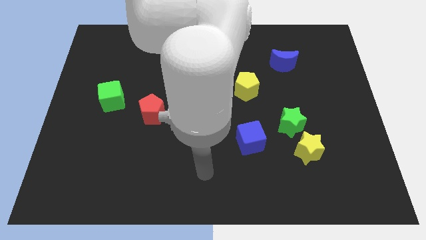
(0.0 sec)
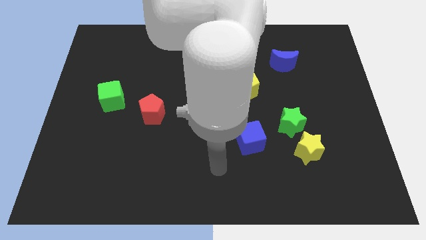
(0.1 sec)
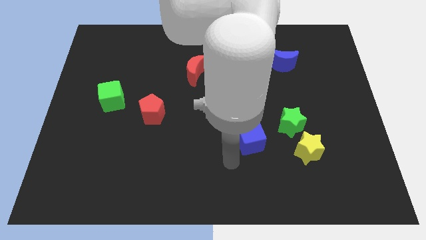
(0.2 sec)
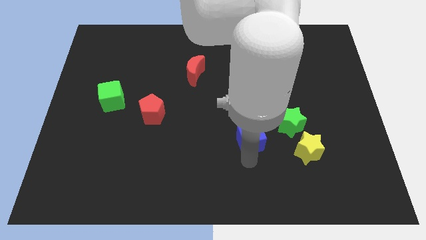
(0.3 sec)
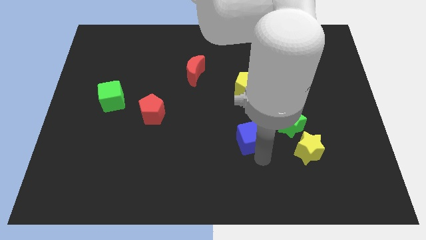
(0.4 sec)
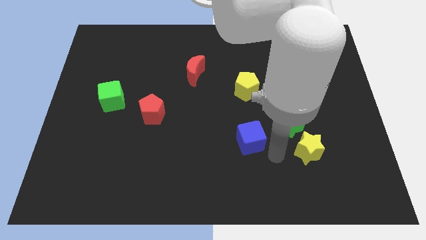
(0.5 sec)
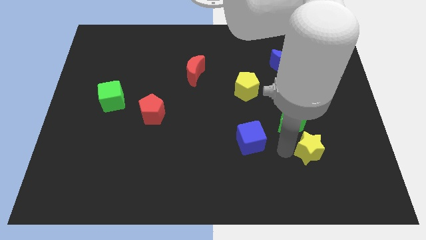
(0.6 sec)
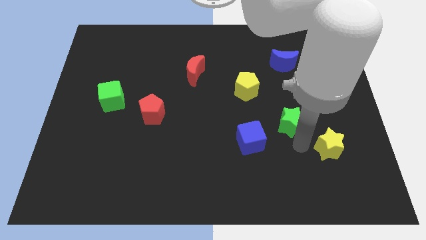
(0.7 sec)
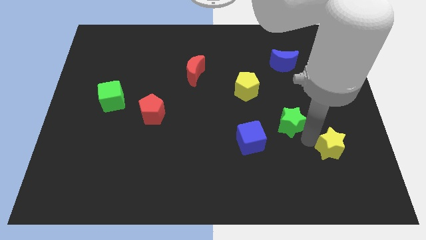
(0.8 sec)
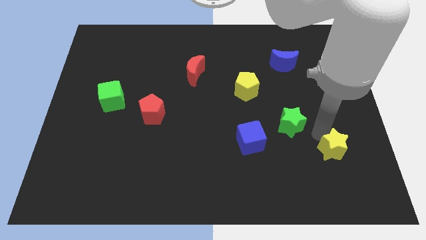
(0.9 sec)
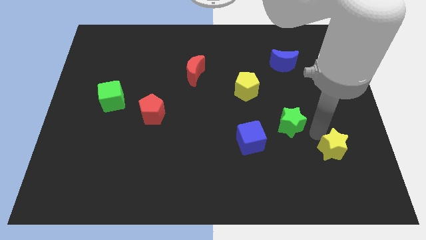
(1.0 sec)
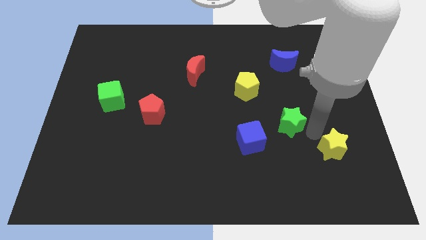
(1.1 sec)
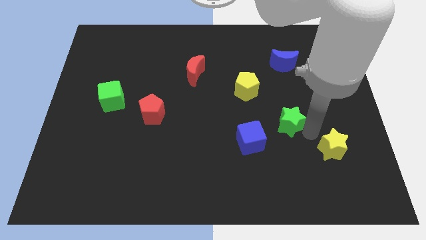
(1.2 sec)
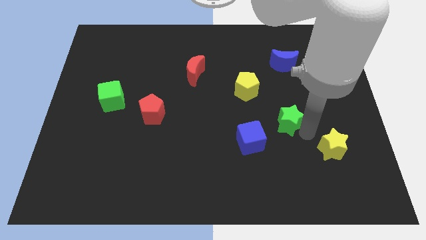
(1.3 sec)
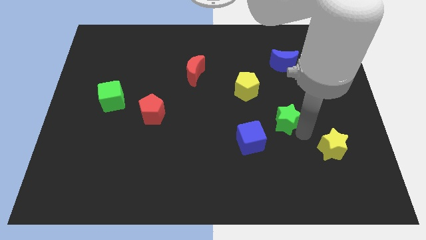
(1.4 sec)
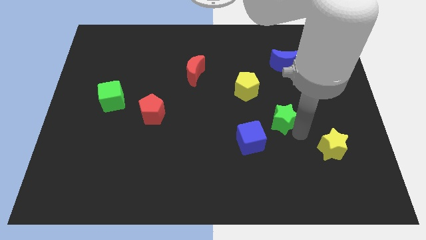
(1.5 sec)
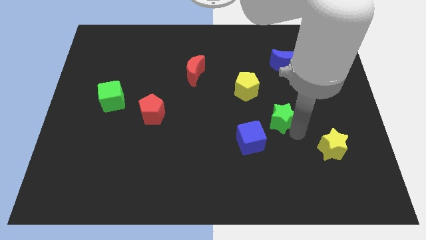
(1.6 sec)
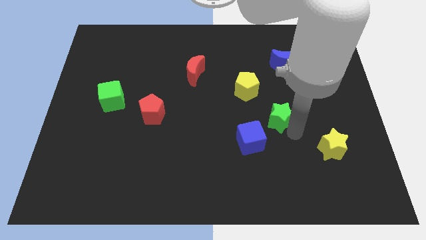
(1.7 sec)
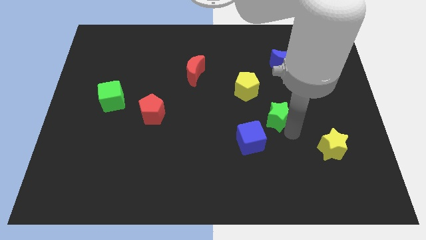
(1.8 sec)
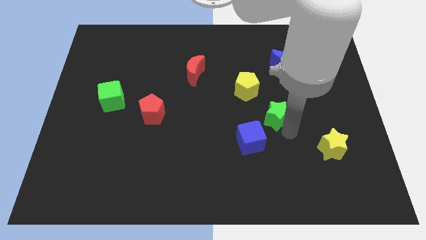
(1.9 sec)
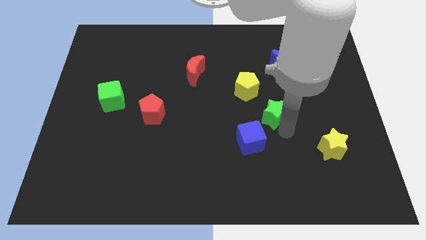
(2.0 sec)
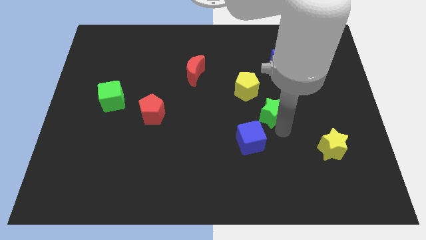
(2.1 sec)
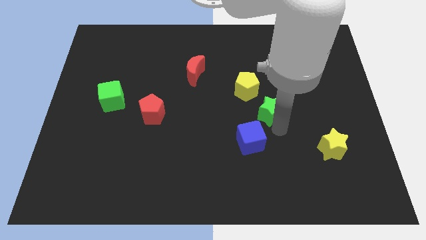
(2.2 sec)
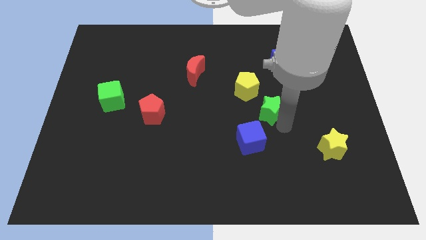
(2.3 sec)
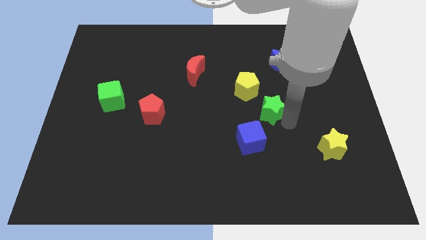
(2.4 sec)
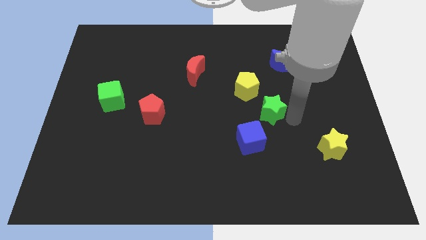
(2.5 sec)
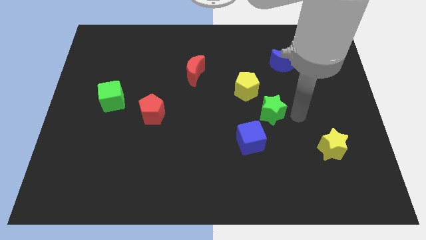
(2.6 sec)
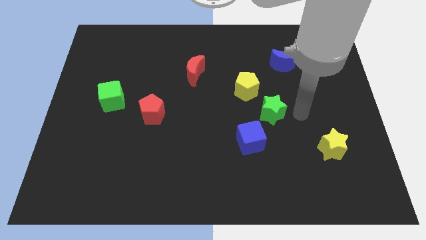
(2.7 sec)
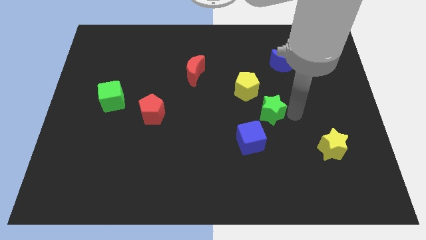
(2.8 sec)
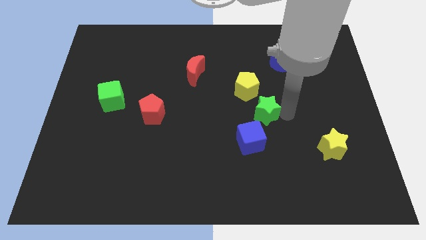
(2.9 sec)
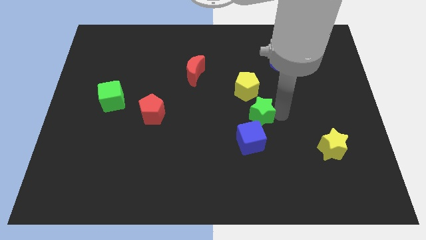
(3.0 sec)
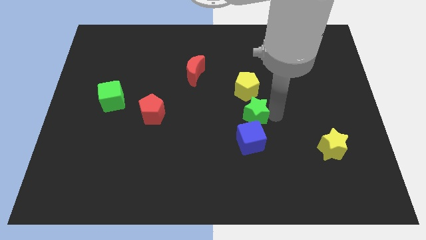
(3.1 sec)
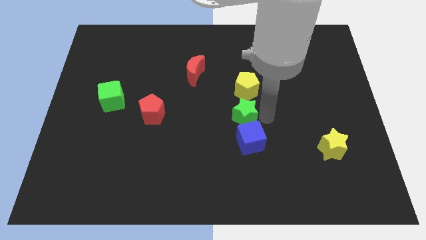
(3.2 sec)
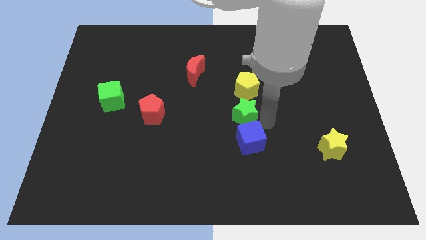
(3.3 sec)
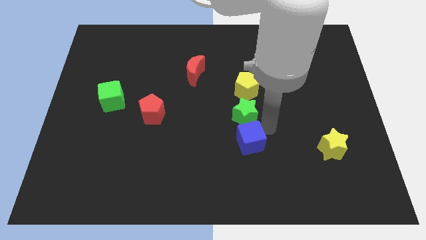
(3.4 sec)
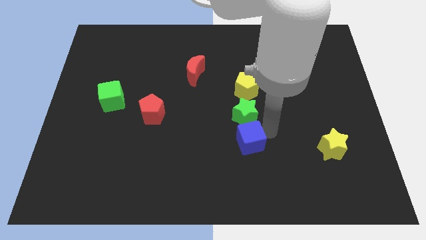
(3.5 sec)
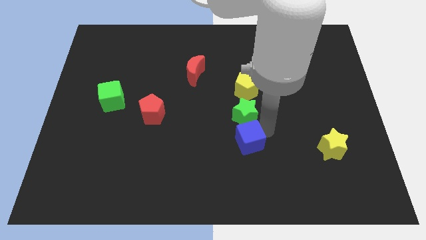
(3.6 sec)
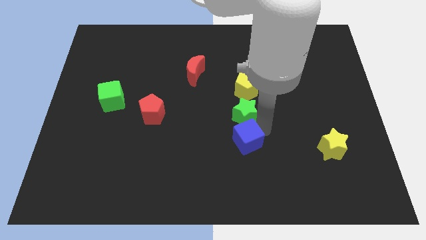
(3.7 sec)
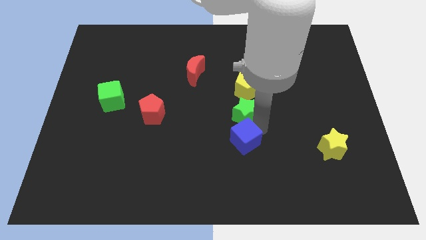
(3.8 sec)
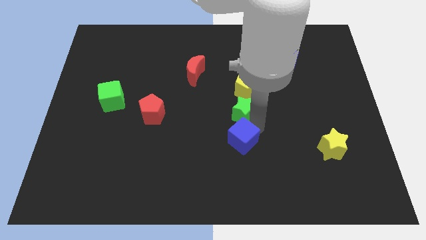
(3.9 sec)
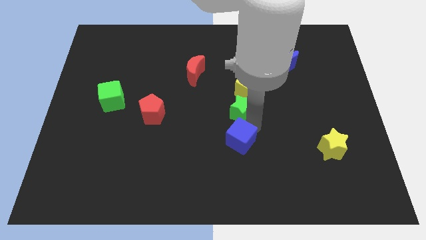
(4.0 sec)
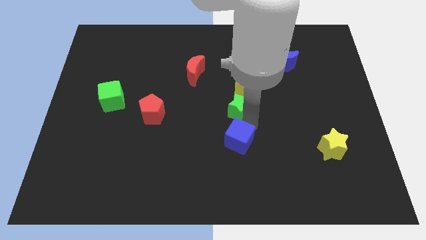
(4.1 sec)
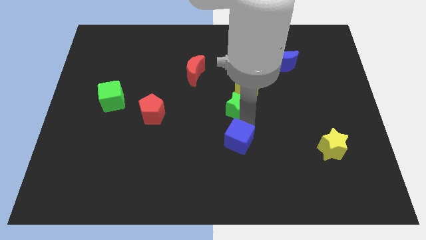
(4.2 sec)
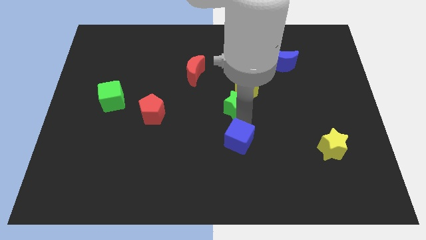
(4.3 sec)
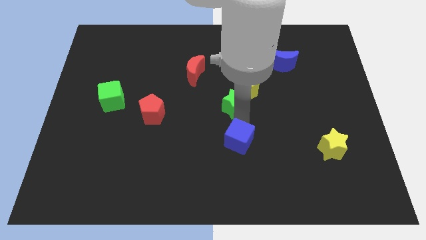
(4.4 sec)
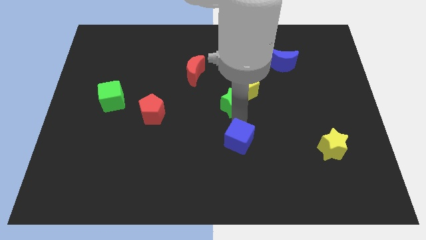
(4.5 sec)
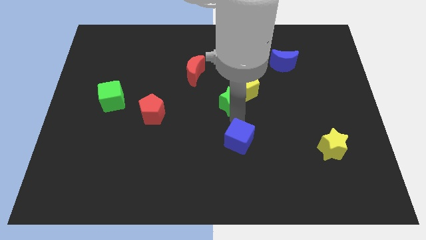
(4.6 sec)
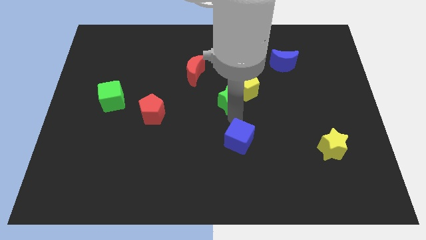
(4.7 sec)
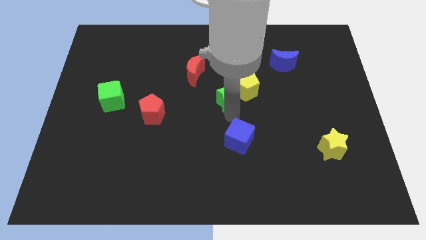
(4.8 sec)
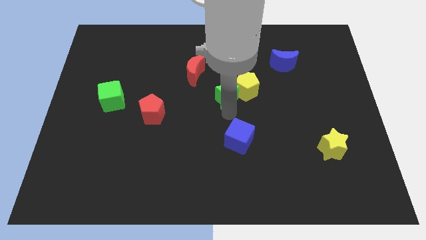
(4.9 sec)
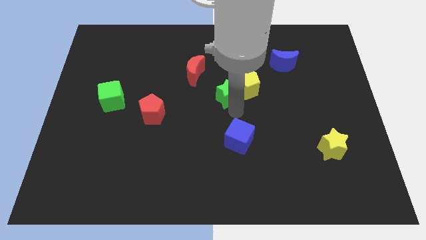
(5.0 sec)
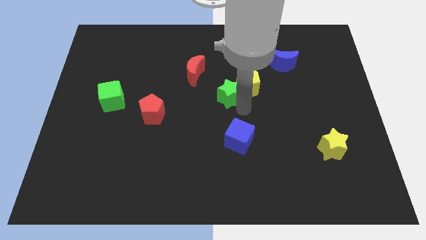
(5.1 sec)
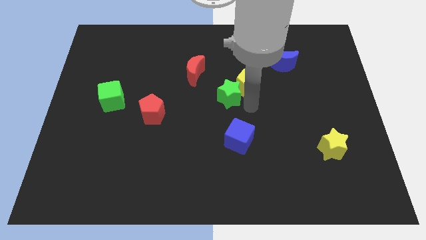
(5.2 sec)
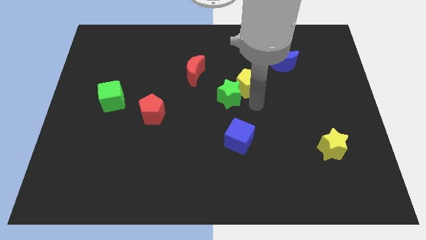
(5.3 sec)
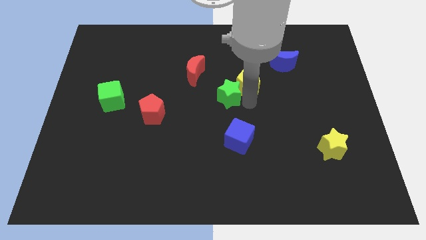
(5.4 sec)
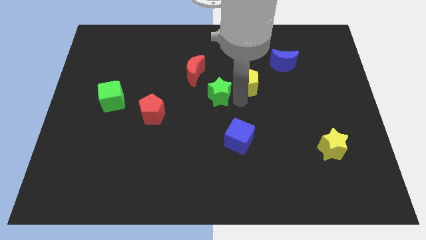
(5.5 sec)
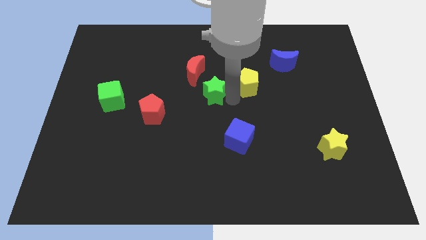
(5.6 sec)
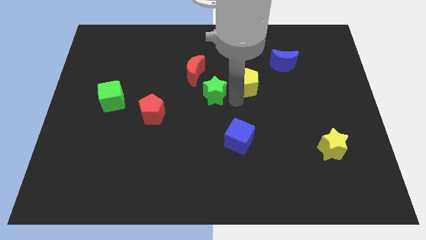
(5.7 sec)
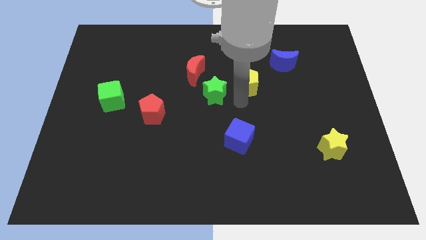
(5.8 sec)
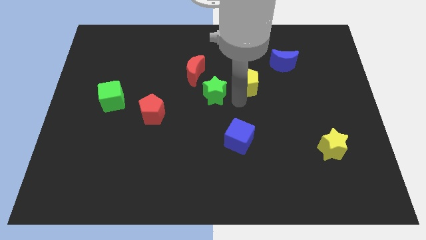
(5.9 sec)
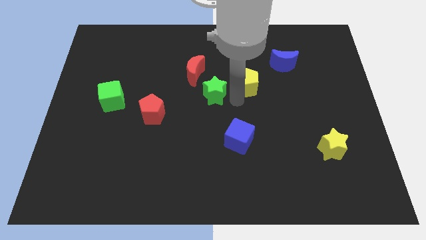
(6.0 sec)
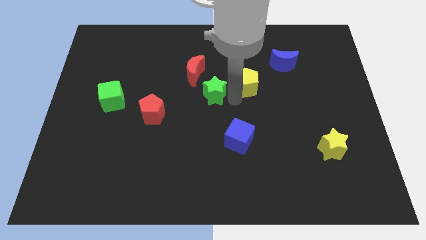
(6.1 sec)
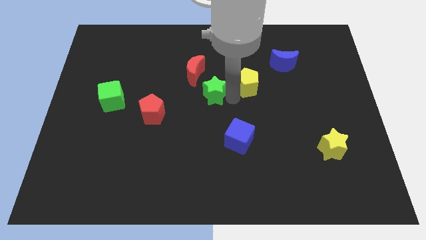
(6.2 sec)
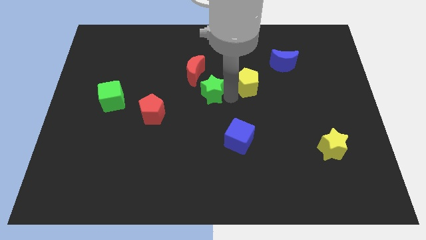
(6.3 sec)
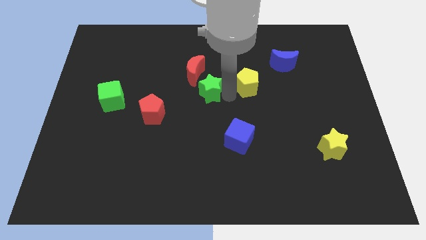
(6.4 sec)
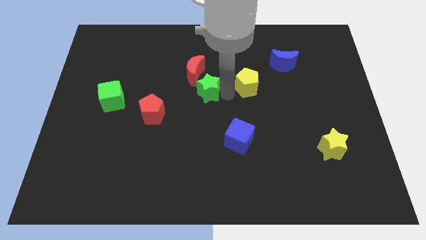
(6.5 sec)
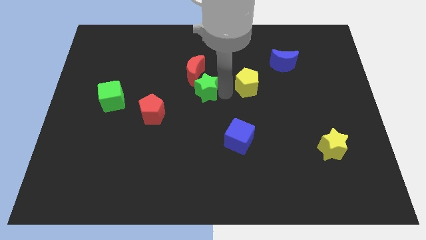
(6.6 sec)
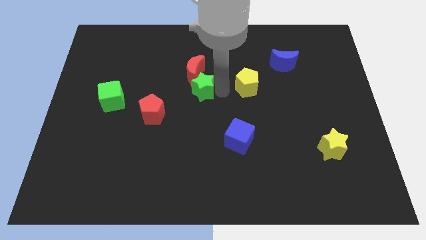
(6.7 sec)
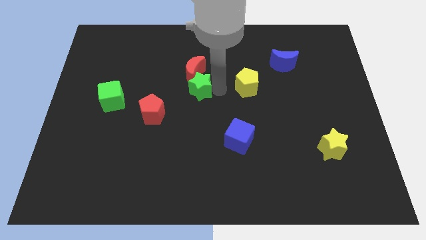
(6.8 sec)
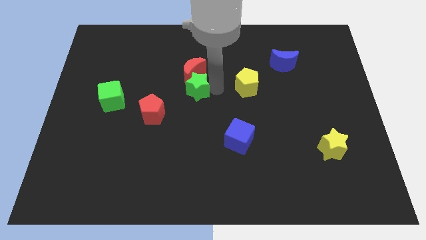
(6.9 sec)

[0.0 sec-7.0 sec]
move the green star to the bottom left of the red moon

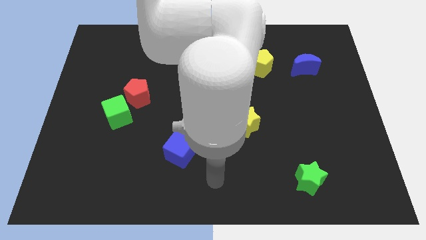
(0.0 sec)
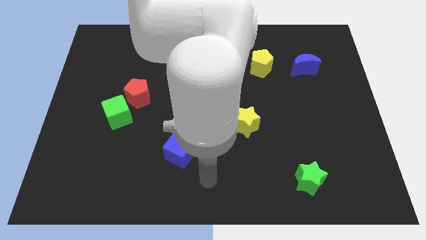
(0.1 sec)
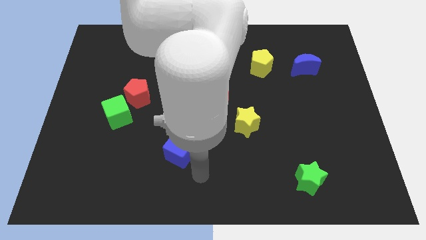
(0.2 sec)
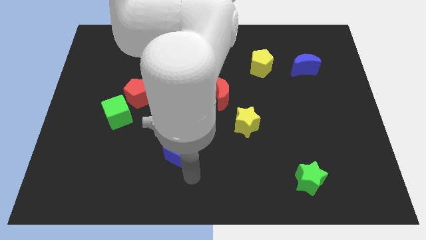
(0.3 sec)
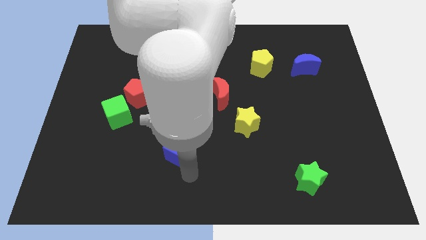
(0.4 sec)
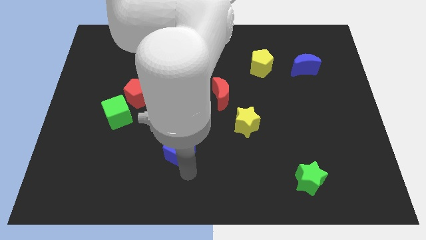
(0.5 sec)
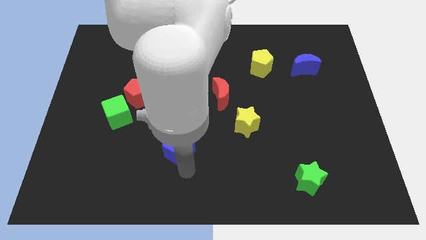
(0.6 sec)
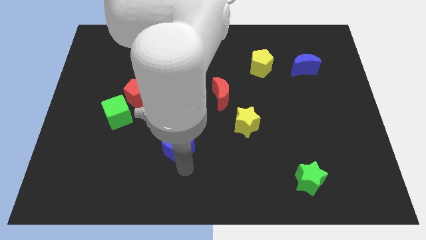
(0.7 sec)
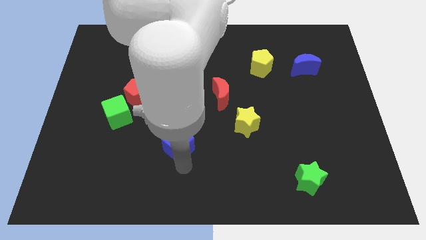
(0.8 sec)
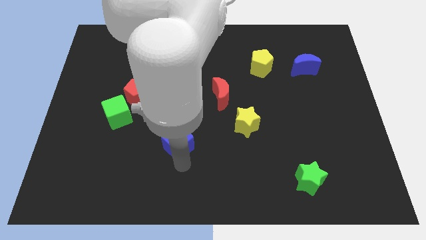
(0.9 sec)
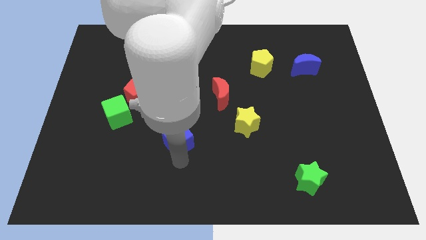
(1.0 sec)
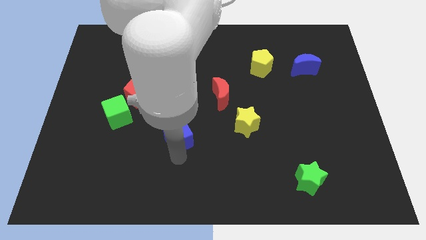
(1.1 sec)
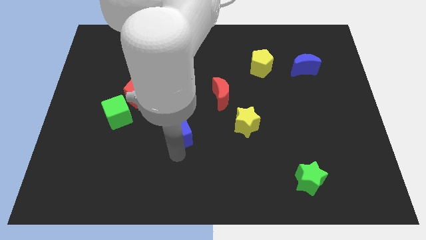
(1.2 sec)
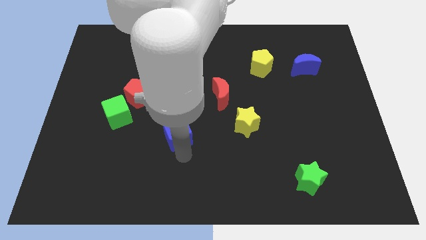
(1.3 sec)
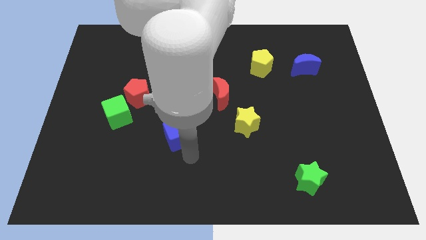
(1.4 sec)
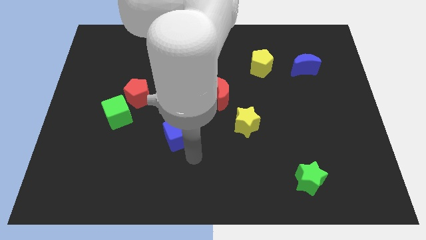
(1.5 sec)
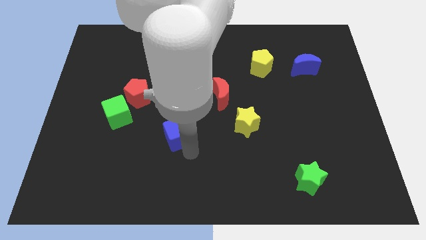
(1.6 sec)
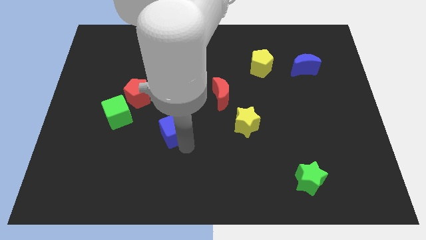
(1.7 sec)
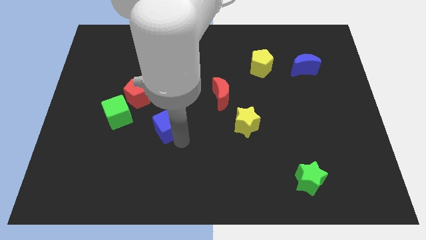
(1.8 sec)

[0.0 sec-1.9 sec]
put the blue cube right of the green cube
